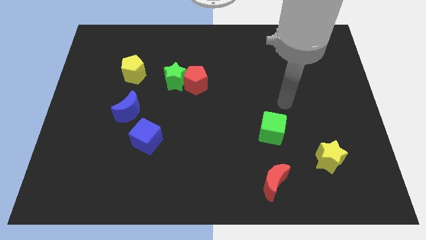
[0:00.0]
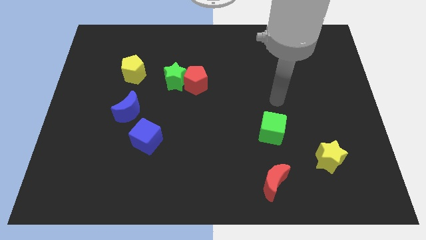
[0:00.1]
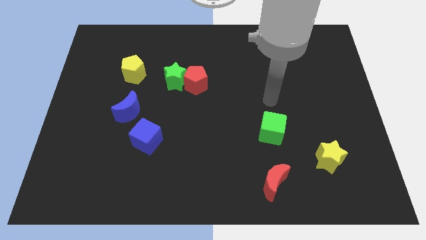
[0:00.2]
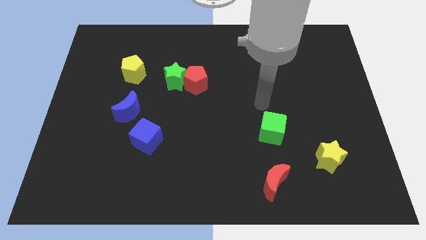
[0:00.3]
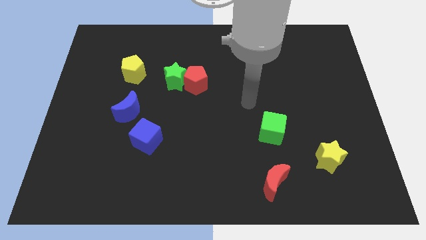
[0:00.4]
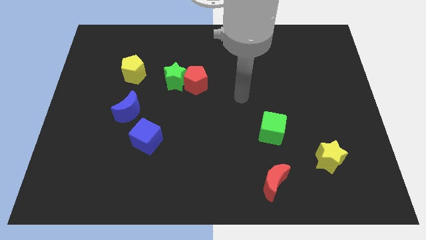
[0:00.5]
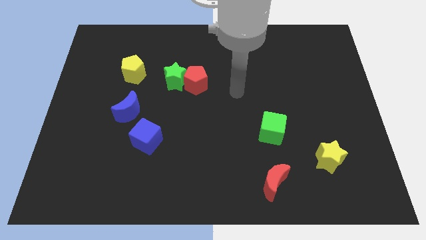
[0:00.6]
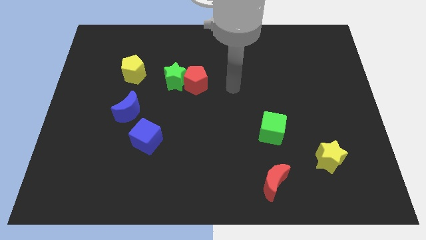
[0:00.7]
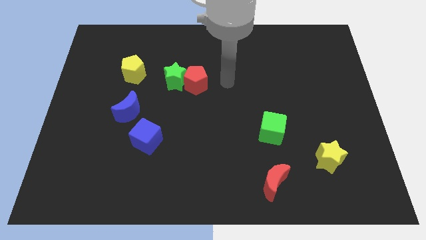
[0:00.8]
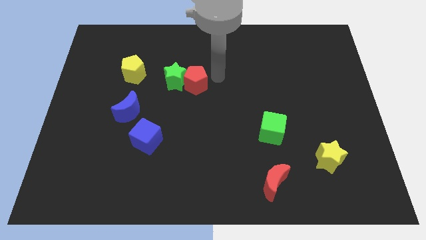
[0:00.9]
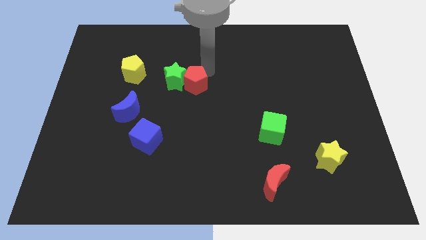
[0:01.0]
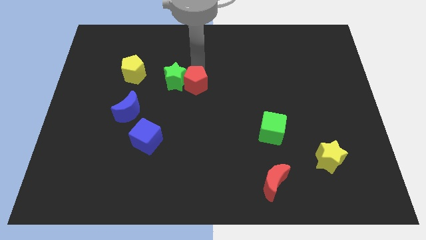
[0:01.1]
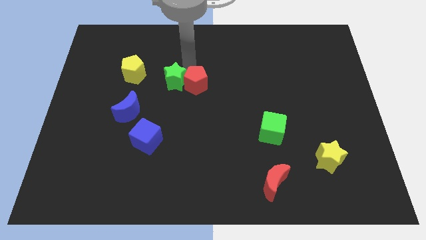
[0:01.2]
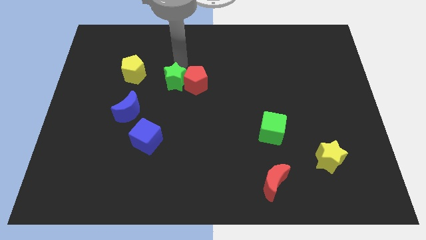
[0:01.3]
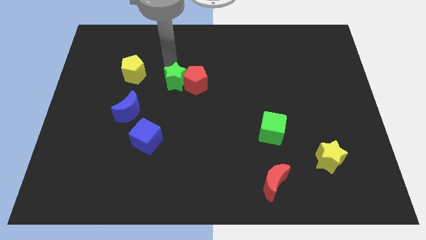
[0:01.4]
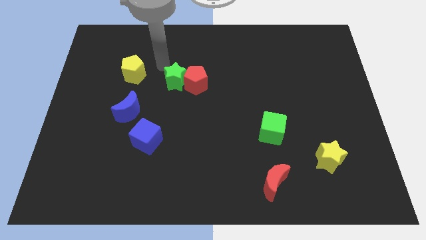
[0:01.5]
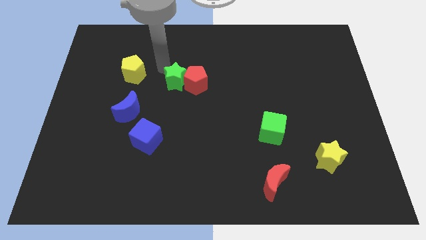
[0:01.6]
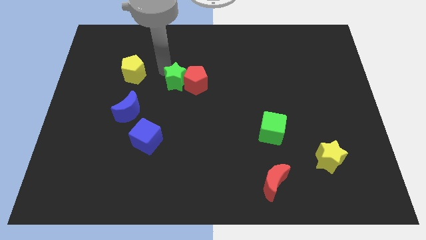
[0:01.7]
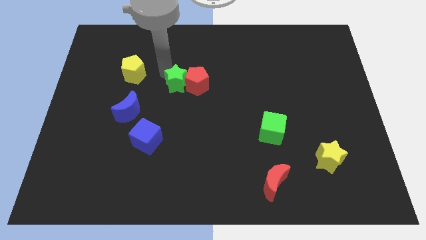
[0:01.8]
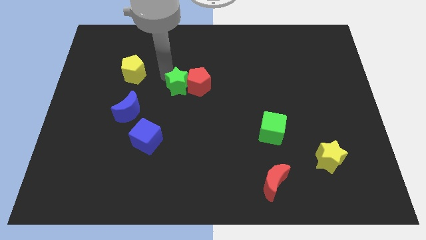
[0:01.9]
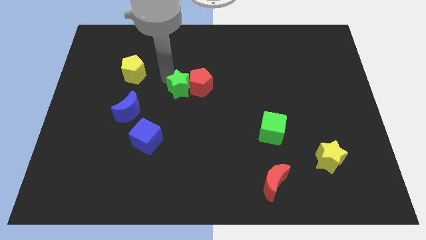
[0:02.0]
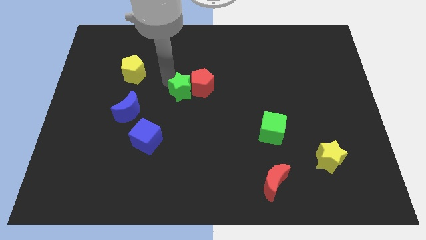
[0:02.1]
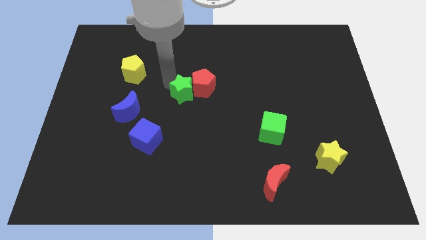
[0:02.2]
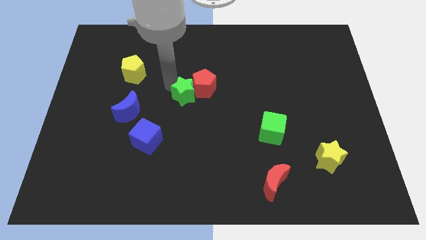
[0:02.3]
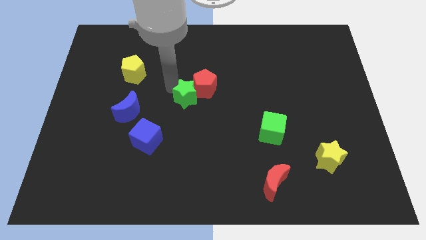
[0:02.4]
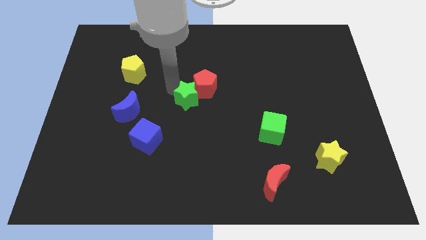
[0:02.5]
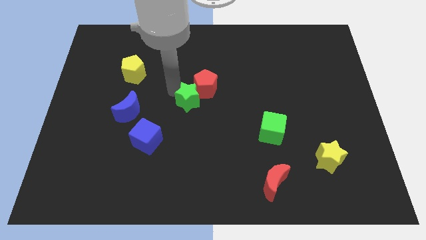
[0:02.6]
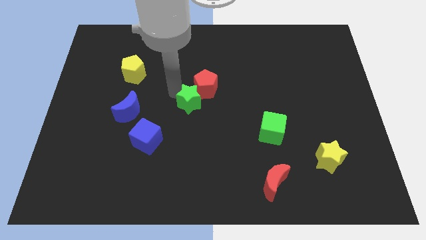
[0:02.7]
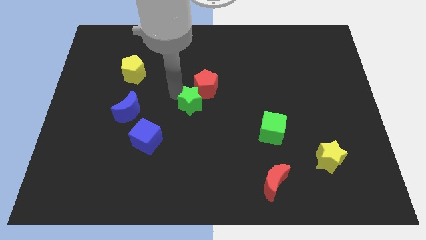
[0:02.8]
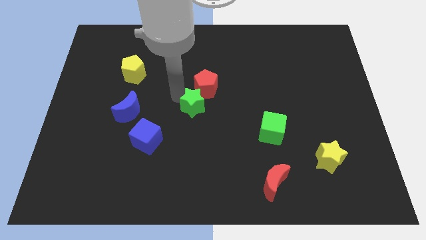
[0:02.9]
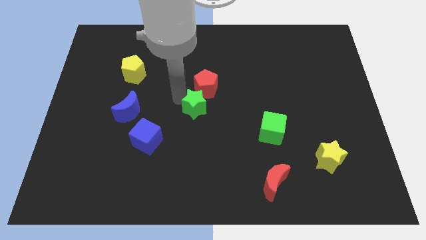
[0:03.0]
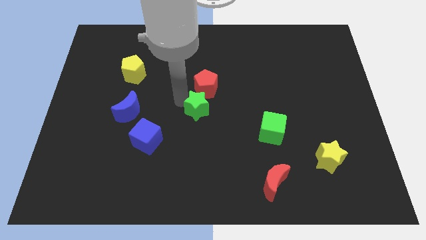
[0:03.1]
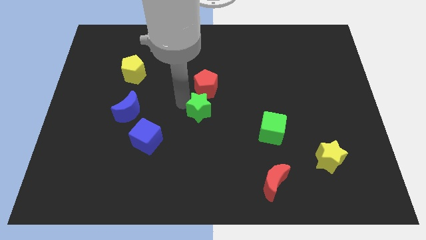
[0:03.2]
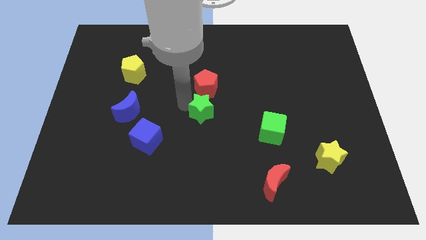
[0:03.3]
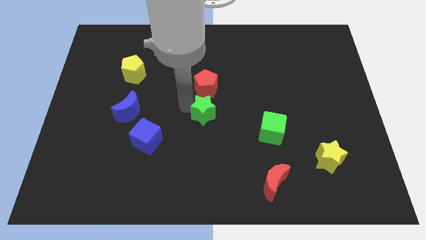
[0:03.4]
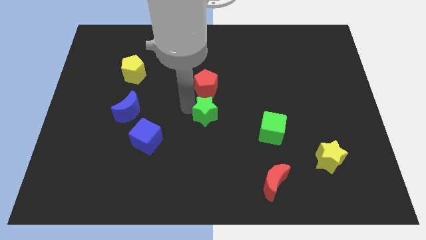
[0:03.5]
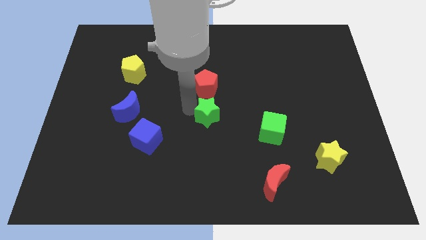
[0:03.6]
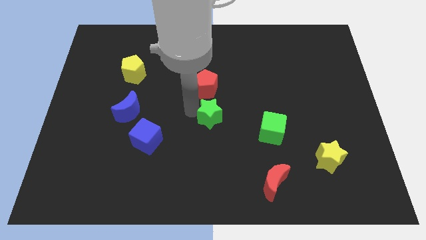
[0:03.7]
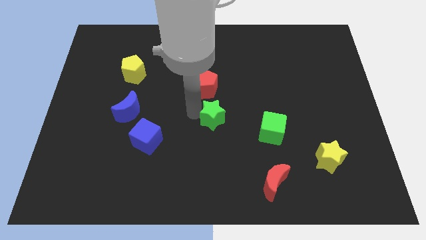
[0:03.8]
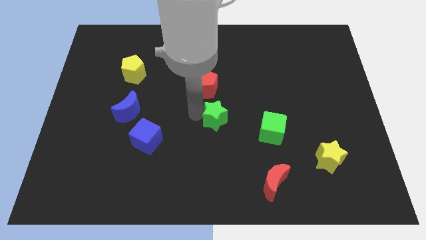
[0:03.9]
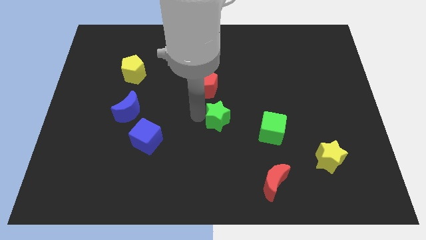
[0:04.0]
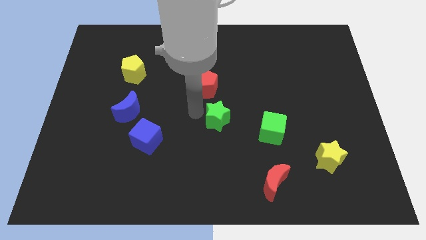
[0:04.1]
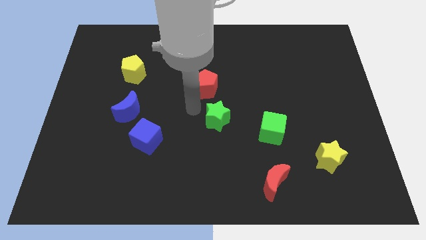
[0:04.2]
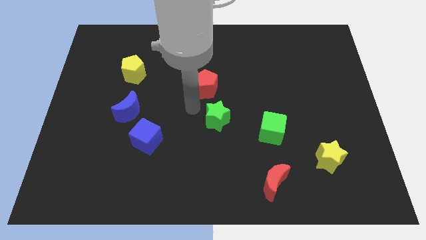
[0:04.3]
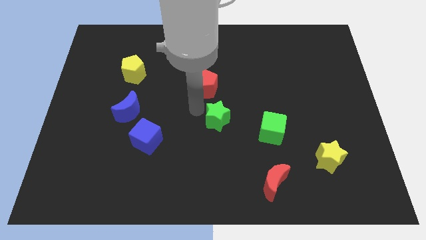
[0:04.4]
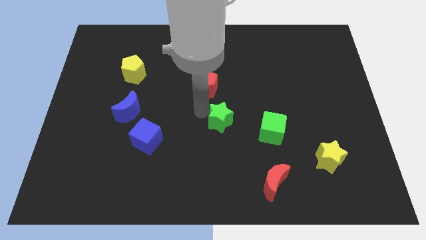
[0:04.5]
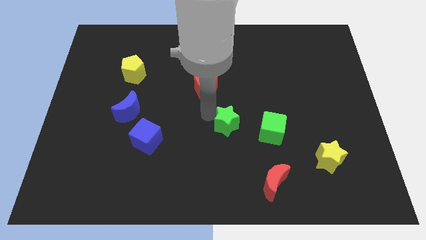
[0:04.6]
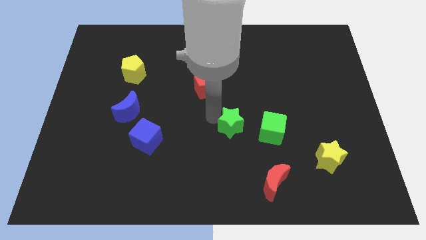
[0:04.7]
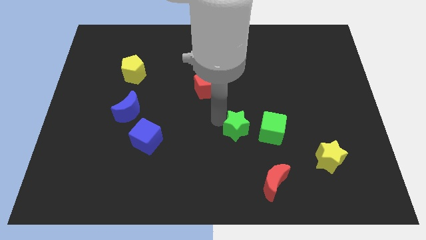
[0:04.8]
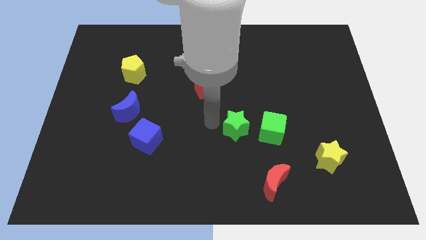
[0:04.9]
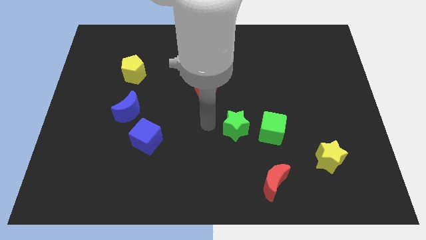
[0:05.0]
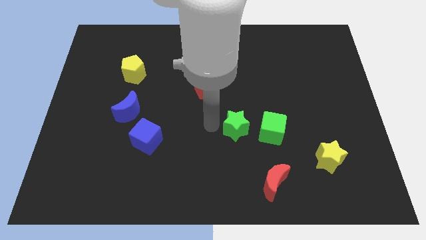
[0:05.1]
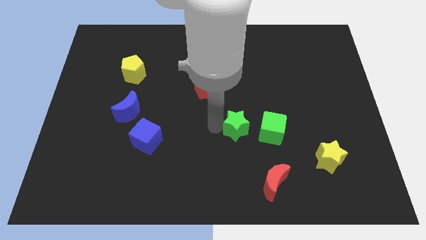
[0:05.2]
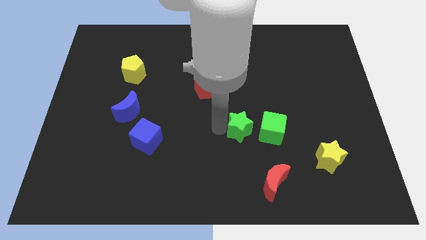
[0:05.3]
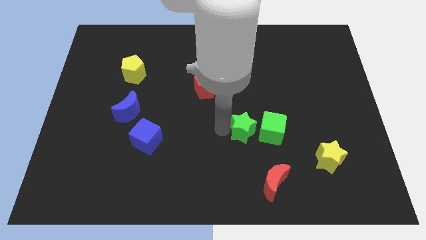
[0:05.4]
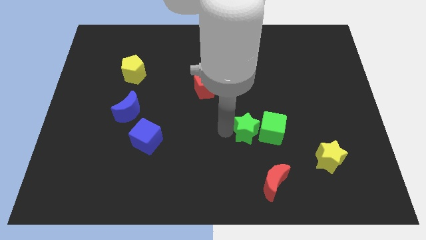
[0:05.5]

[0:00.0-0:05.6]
put the green star towards the green cube
